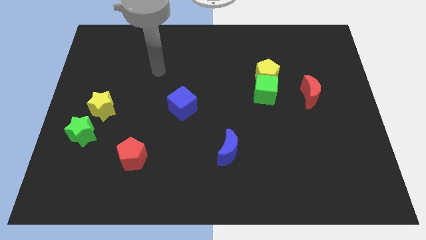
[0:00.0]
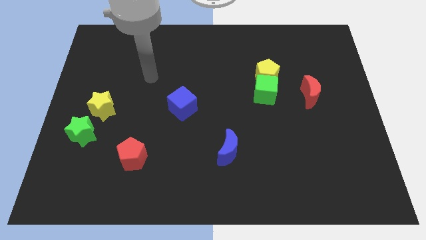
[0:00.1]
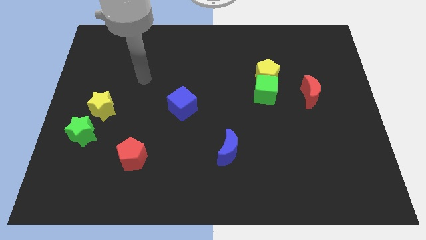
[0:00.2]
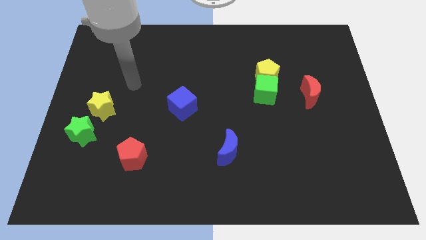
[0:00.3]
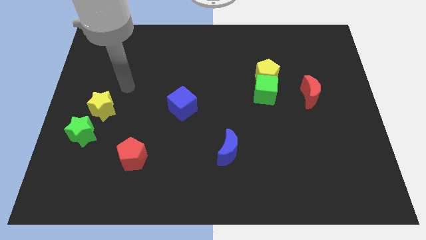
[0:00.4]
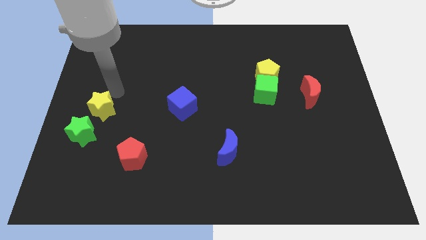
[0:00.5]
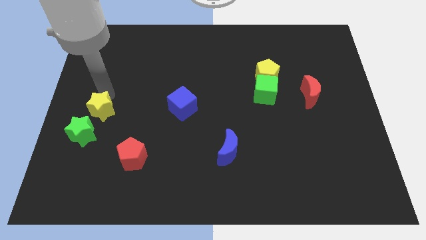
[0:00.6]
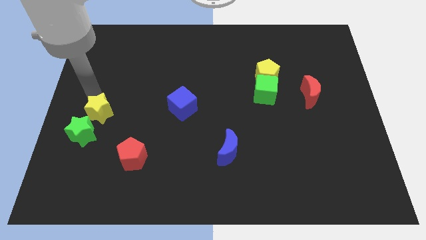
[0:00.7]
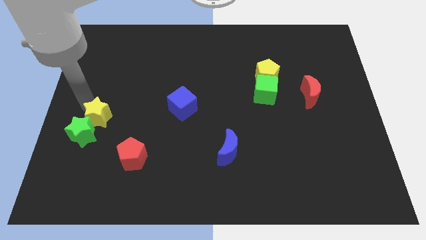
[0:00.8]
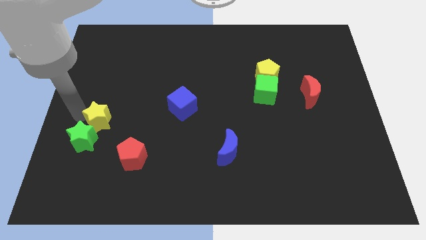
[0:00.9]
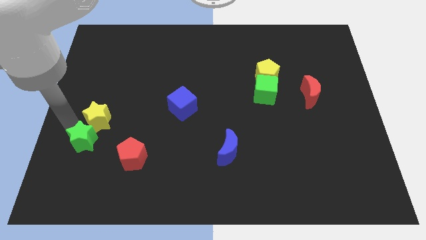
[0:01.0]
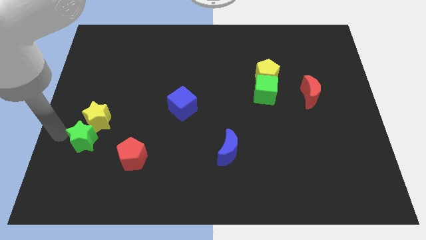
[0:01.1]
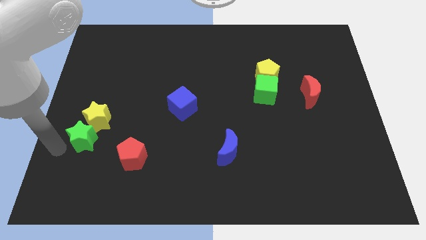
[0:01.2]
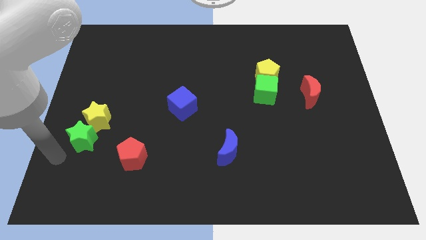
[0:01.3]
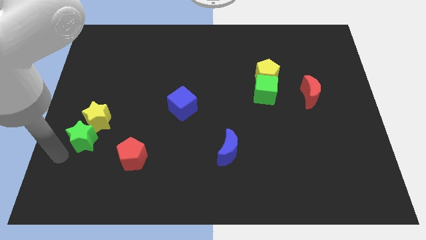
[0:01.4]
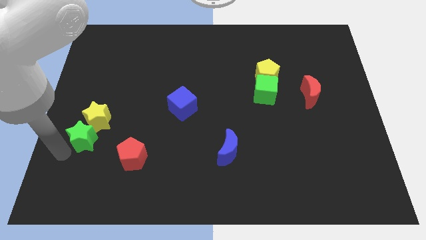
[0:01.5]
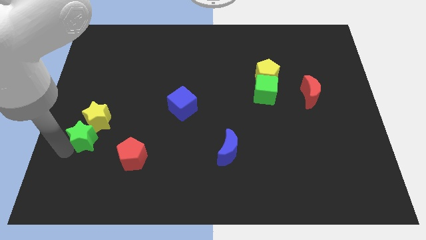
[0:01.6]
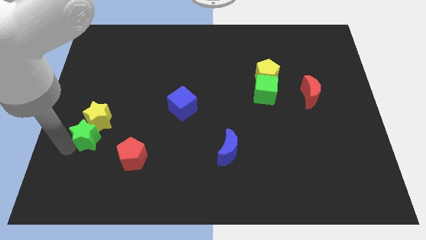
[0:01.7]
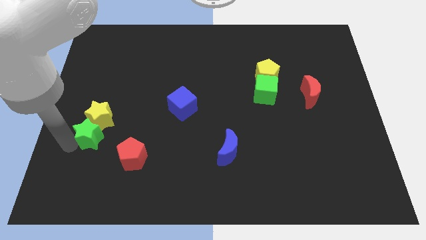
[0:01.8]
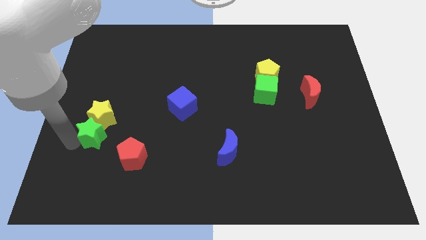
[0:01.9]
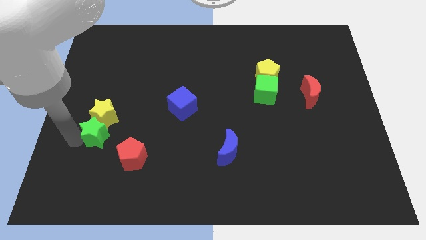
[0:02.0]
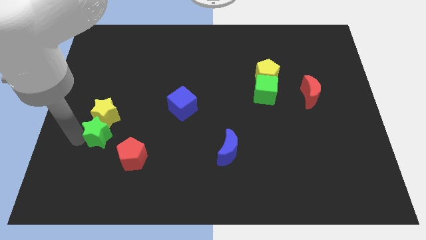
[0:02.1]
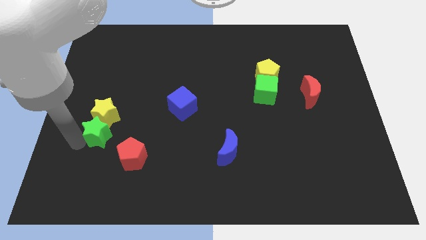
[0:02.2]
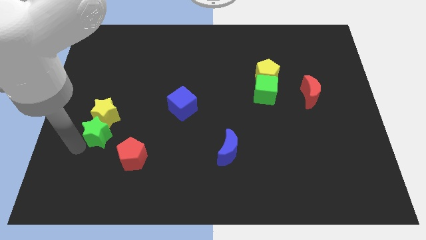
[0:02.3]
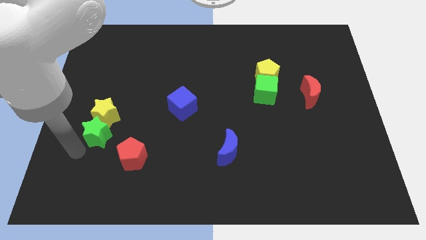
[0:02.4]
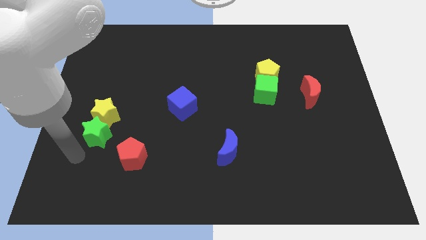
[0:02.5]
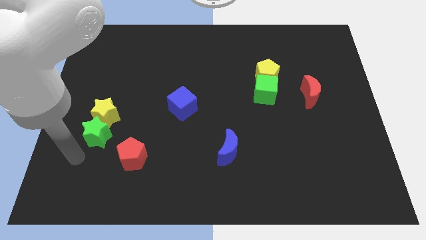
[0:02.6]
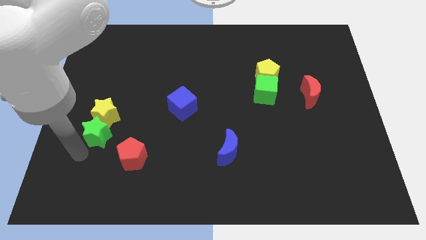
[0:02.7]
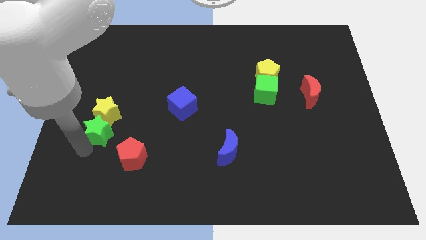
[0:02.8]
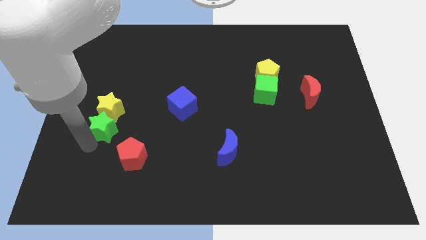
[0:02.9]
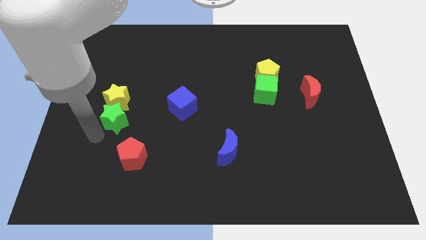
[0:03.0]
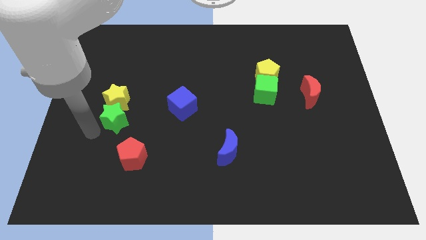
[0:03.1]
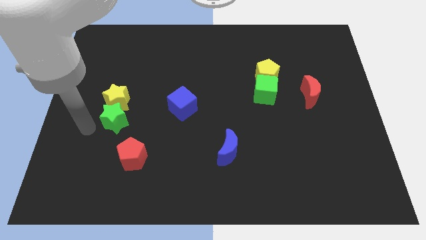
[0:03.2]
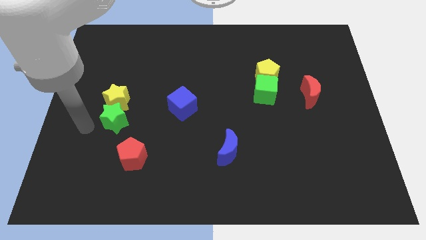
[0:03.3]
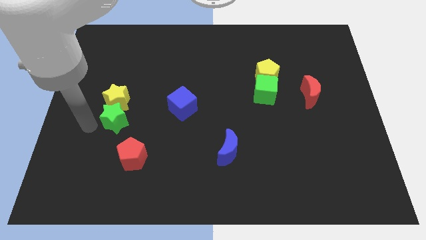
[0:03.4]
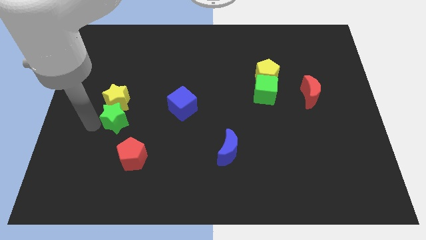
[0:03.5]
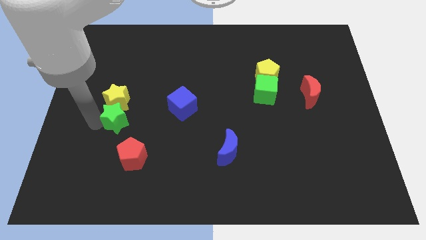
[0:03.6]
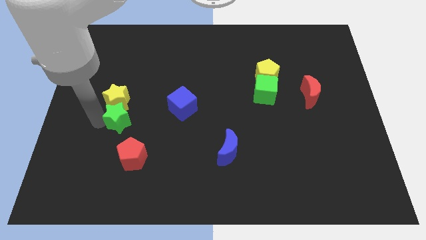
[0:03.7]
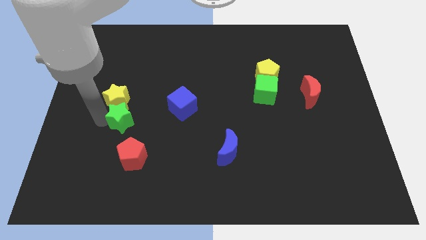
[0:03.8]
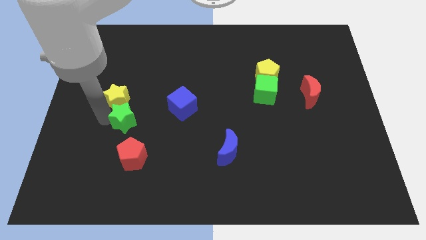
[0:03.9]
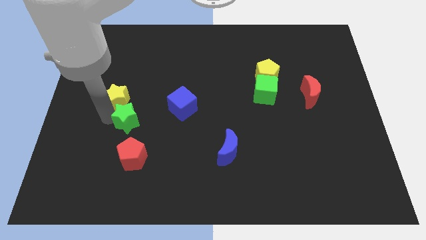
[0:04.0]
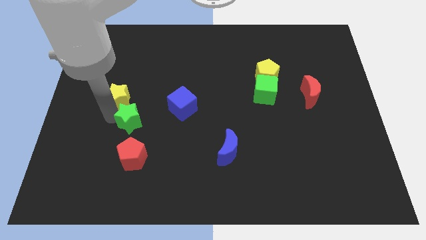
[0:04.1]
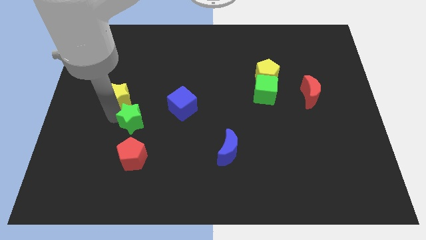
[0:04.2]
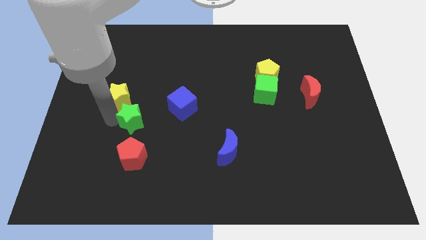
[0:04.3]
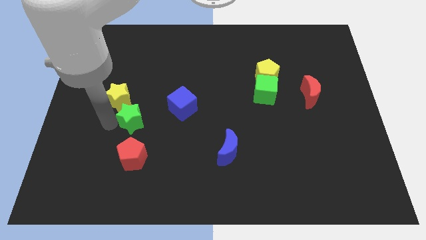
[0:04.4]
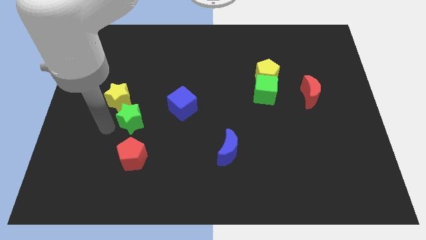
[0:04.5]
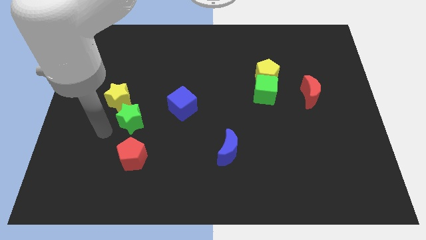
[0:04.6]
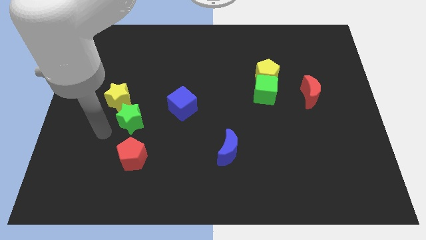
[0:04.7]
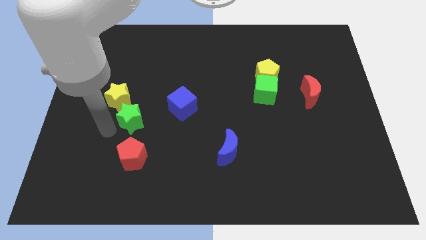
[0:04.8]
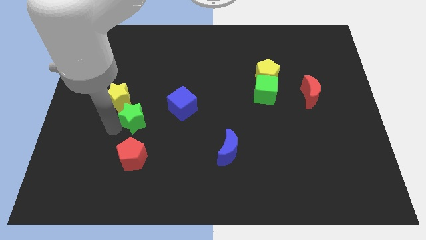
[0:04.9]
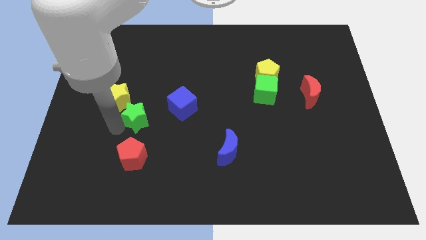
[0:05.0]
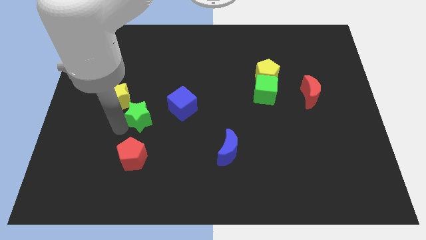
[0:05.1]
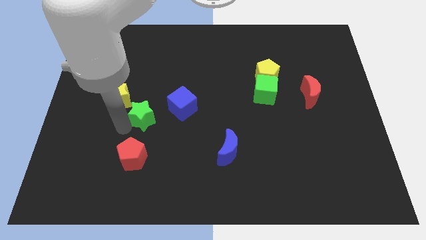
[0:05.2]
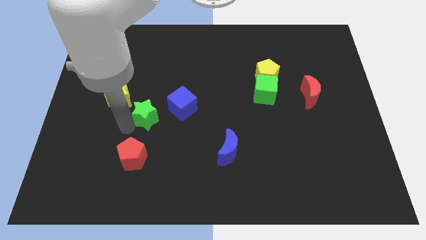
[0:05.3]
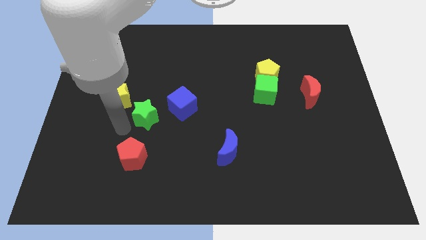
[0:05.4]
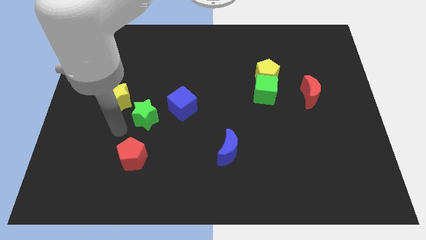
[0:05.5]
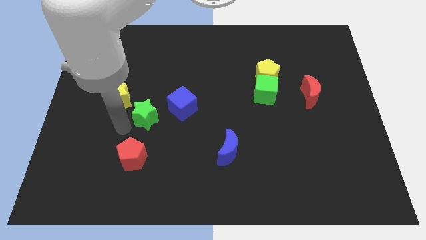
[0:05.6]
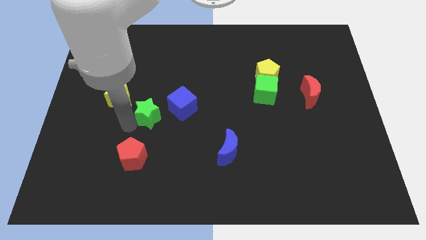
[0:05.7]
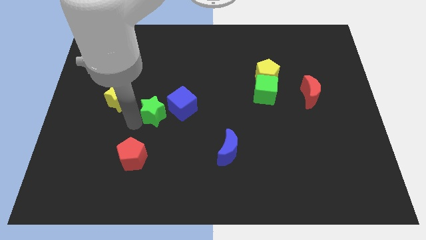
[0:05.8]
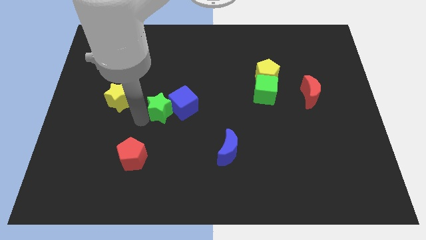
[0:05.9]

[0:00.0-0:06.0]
move the green star close to the blue cube

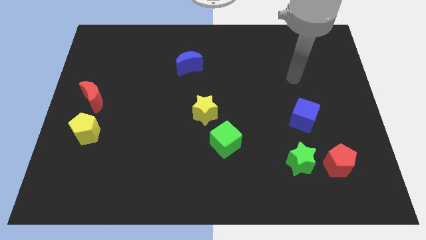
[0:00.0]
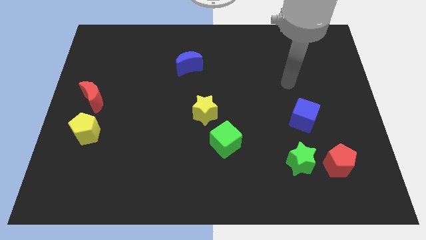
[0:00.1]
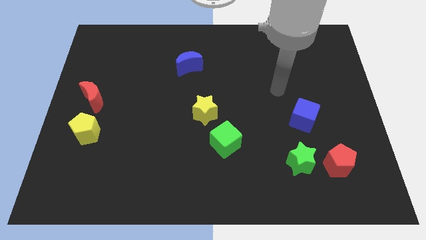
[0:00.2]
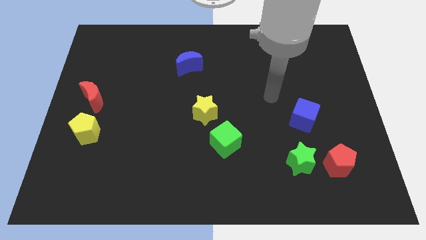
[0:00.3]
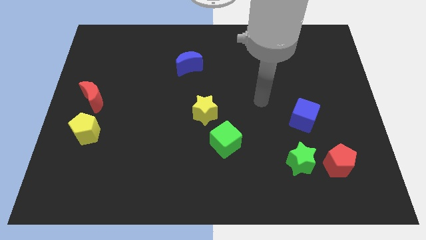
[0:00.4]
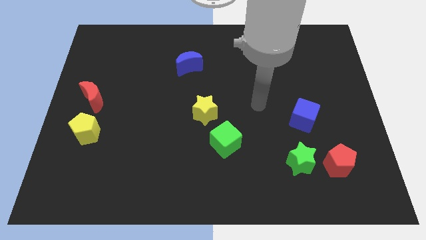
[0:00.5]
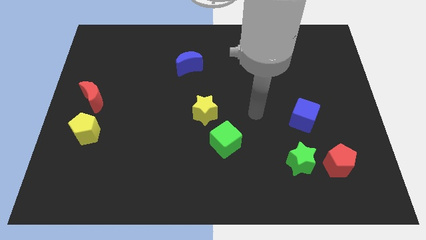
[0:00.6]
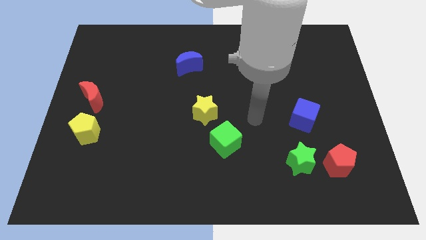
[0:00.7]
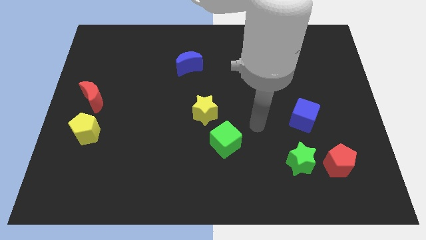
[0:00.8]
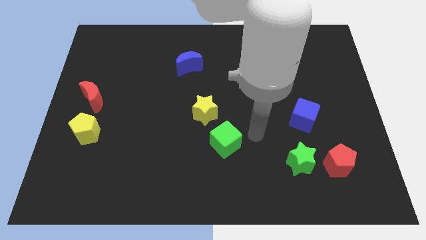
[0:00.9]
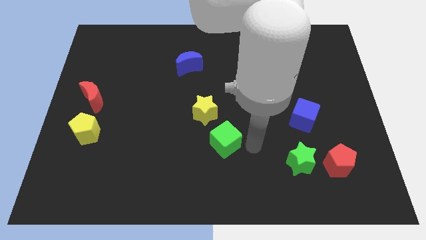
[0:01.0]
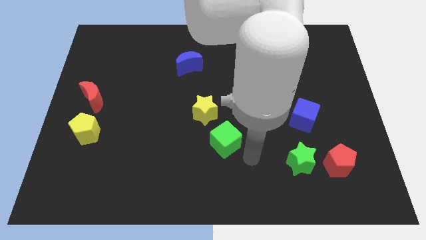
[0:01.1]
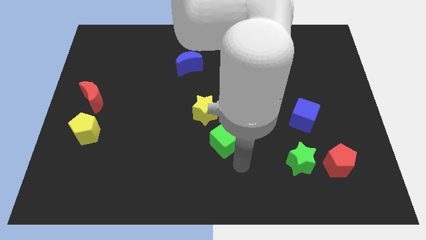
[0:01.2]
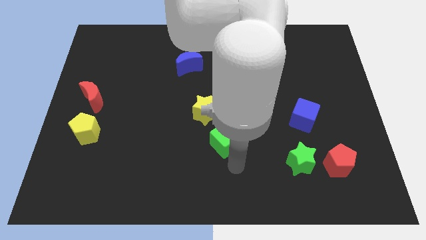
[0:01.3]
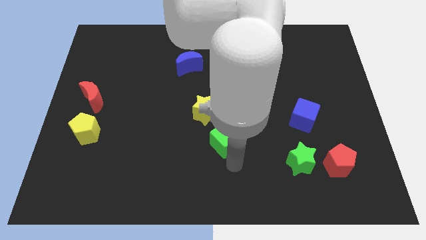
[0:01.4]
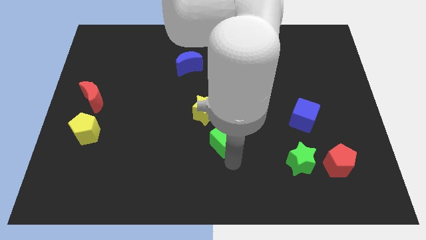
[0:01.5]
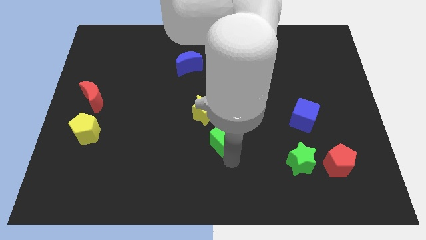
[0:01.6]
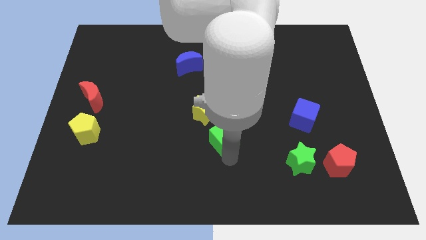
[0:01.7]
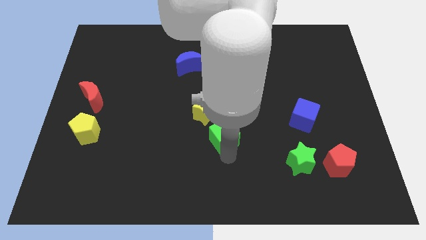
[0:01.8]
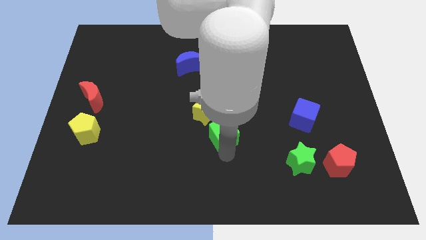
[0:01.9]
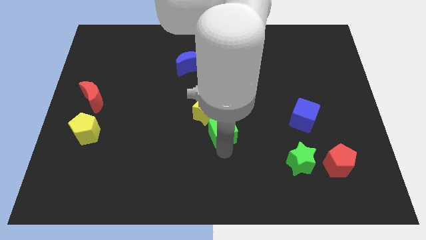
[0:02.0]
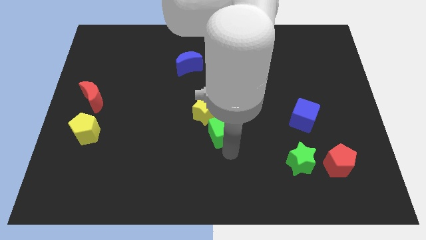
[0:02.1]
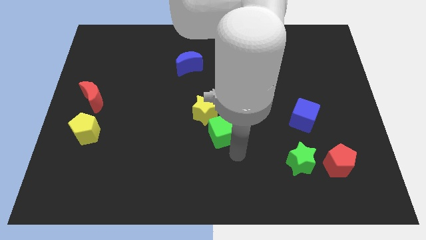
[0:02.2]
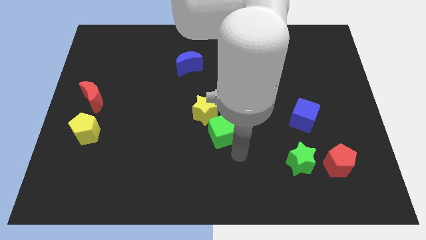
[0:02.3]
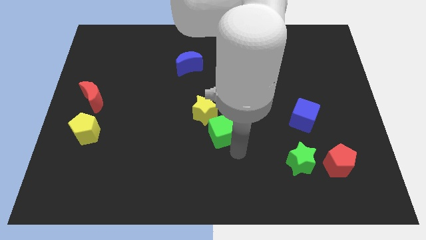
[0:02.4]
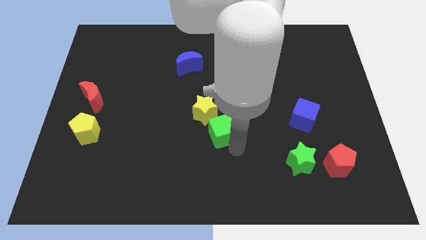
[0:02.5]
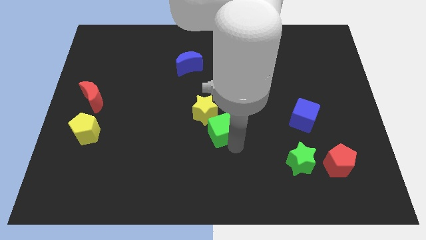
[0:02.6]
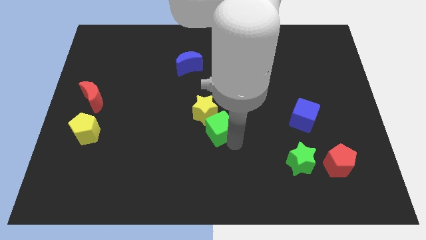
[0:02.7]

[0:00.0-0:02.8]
move the green cube to the yellow star
